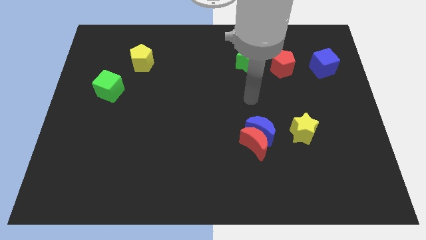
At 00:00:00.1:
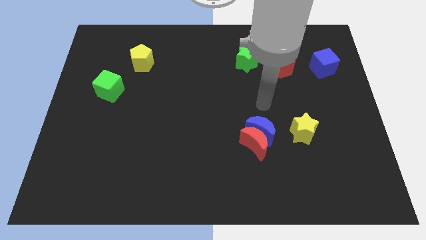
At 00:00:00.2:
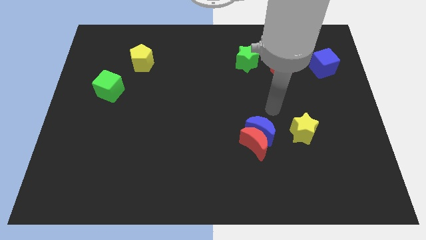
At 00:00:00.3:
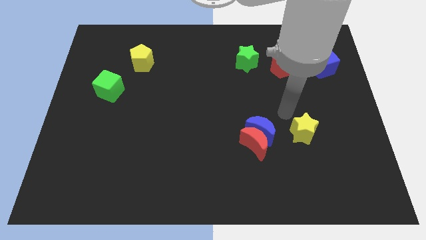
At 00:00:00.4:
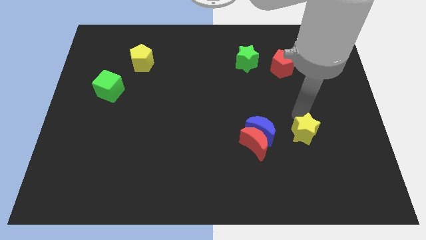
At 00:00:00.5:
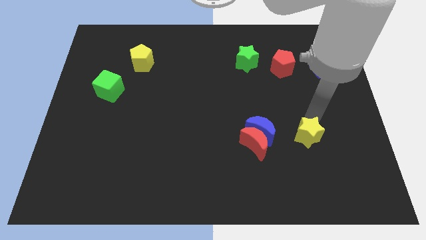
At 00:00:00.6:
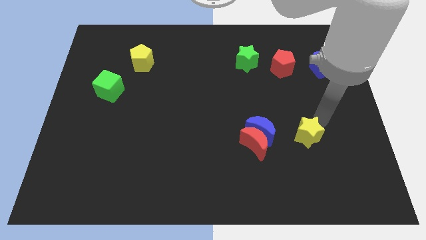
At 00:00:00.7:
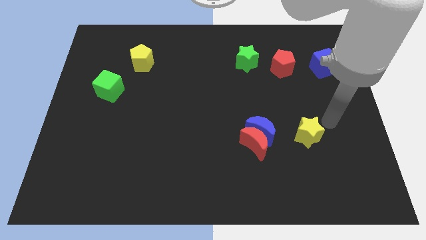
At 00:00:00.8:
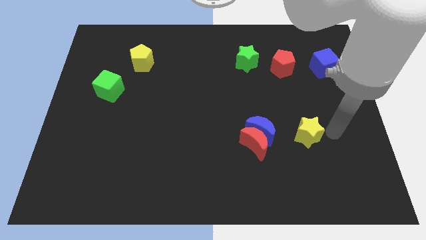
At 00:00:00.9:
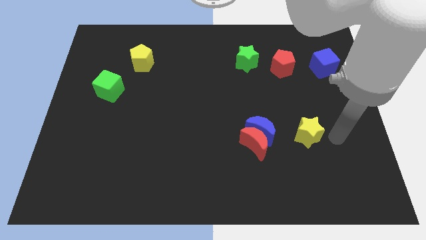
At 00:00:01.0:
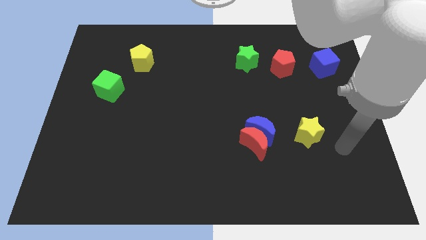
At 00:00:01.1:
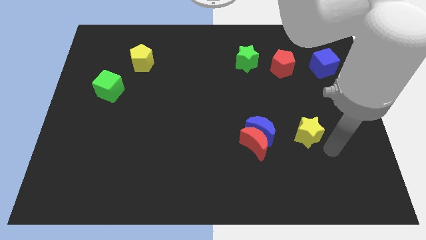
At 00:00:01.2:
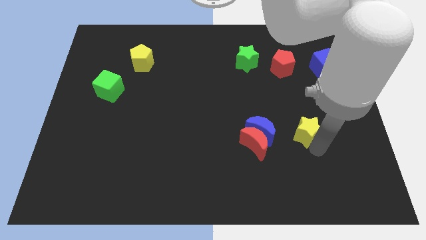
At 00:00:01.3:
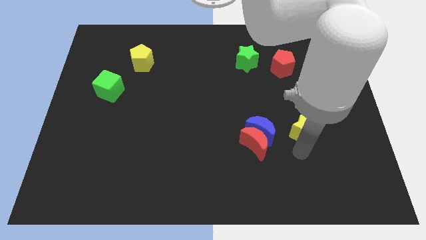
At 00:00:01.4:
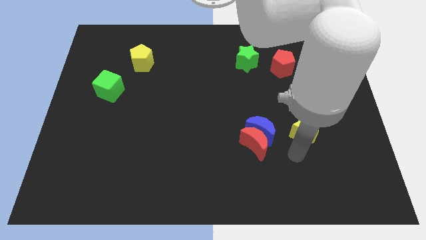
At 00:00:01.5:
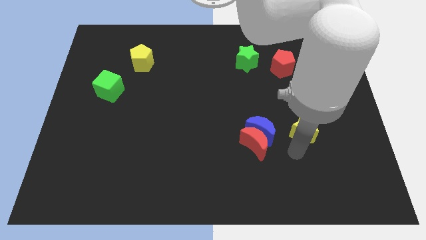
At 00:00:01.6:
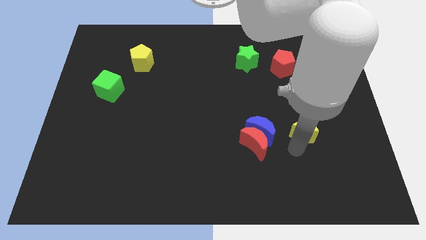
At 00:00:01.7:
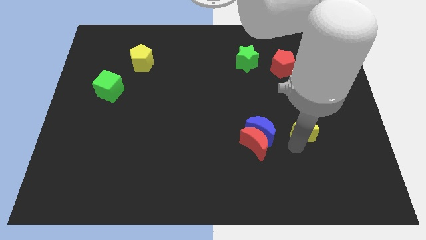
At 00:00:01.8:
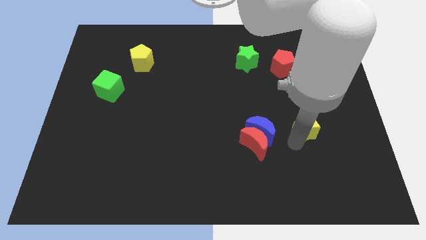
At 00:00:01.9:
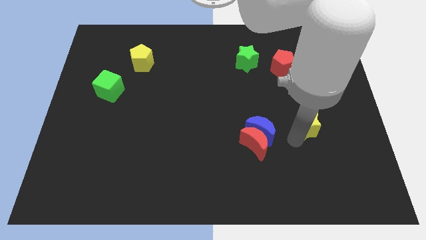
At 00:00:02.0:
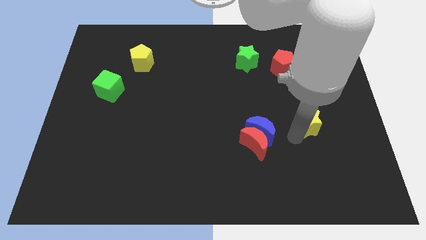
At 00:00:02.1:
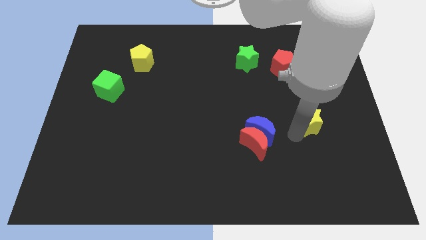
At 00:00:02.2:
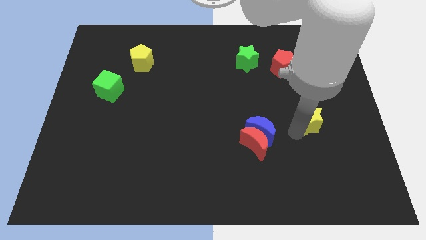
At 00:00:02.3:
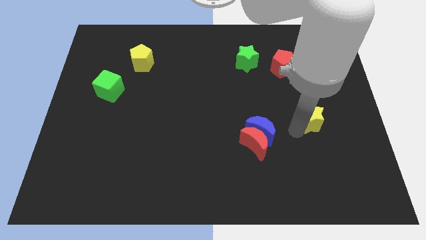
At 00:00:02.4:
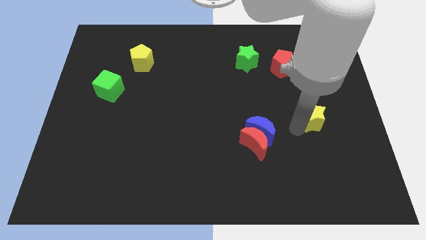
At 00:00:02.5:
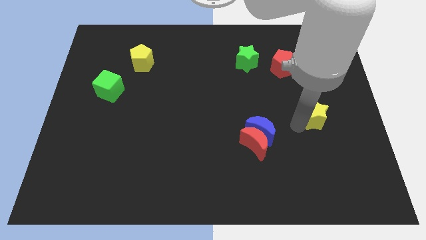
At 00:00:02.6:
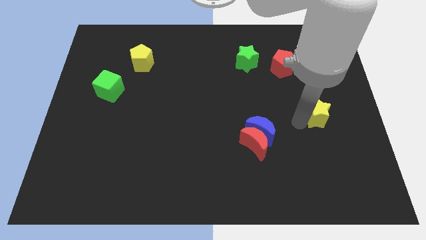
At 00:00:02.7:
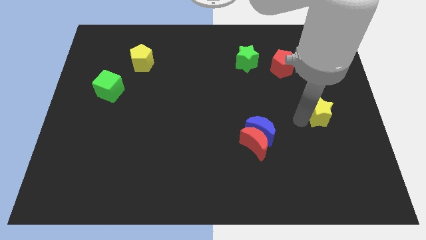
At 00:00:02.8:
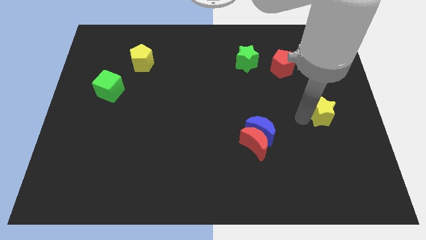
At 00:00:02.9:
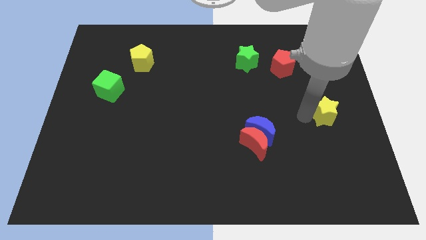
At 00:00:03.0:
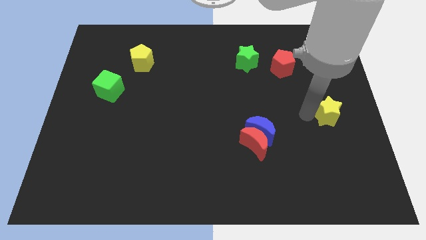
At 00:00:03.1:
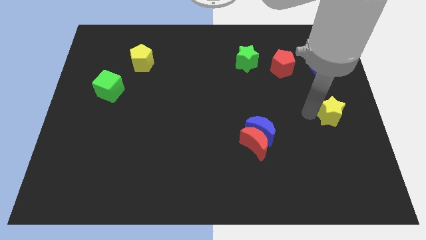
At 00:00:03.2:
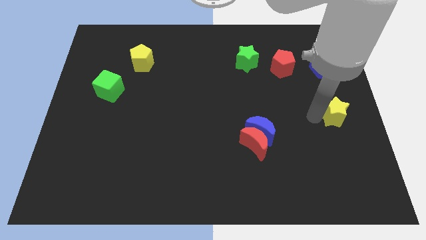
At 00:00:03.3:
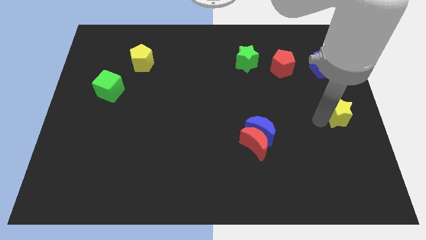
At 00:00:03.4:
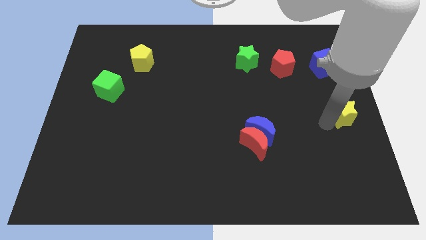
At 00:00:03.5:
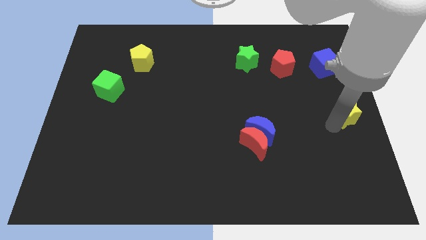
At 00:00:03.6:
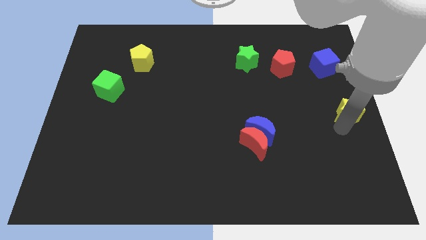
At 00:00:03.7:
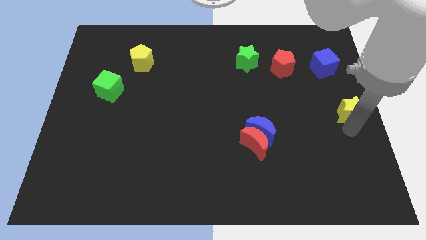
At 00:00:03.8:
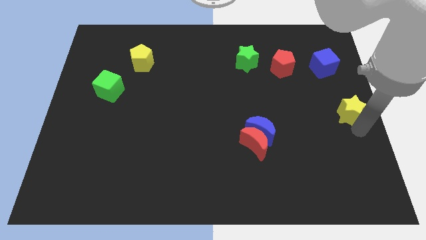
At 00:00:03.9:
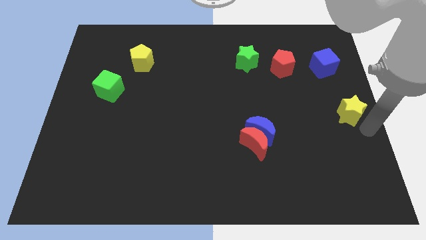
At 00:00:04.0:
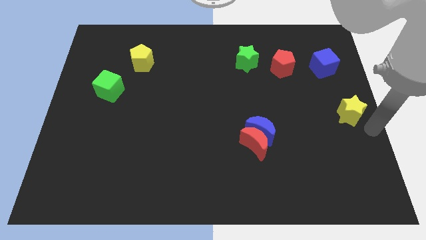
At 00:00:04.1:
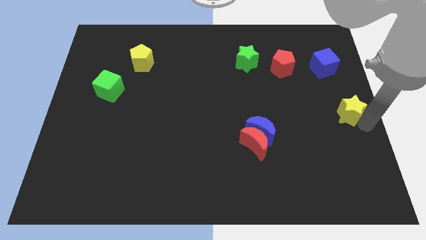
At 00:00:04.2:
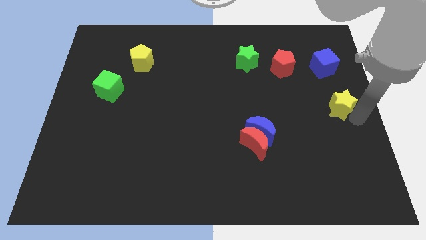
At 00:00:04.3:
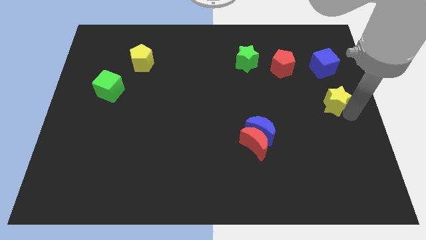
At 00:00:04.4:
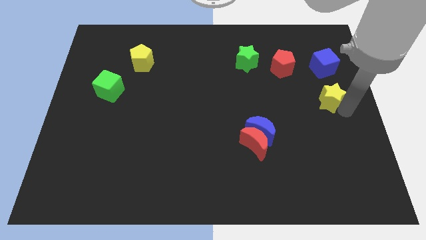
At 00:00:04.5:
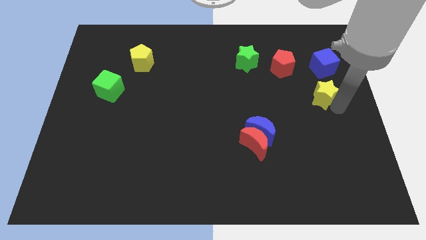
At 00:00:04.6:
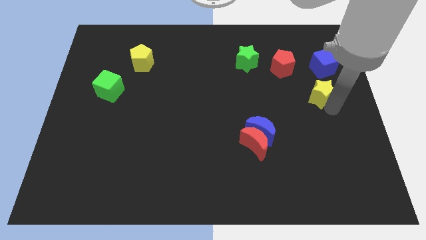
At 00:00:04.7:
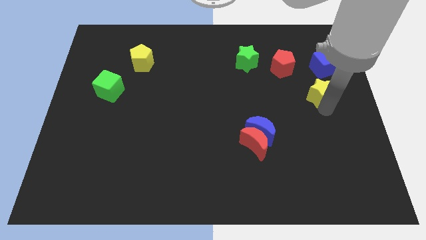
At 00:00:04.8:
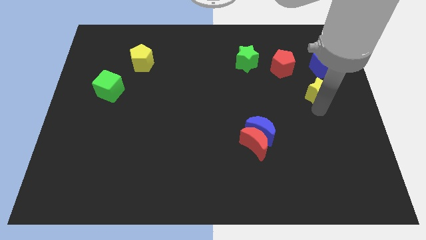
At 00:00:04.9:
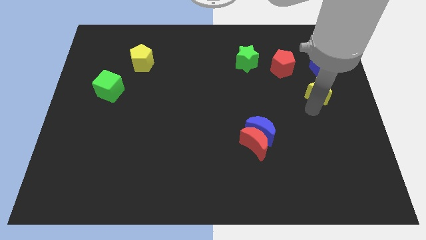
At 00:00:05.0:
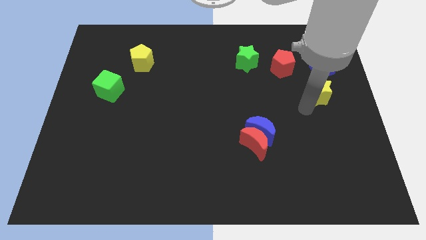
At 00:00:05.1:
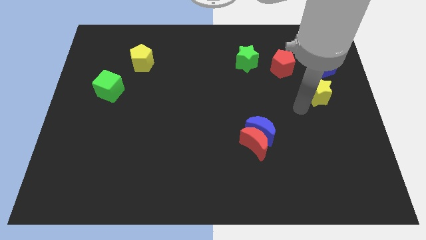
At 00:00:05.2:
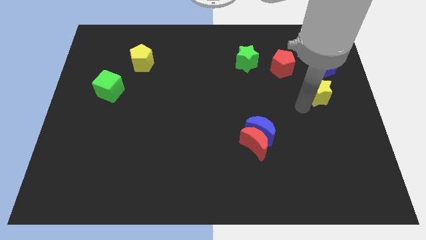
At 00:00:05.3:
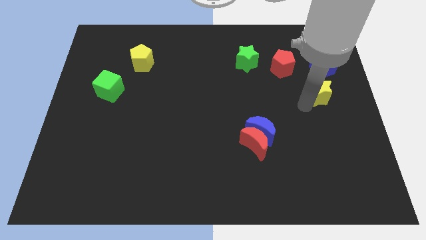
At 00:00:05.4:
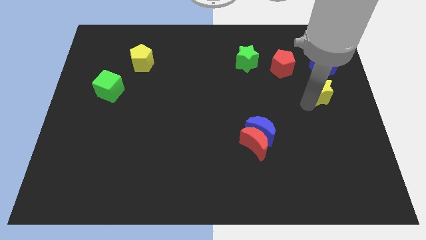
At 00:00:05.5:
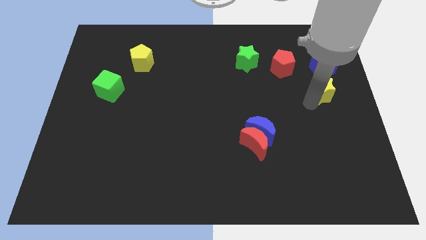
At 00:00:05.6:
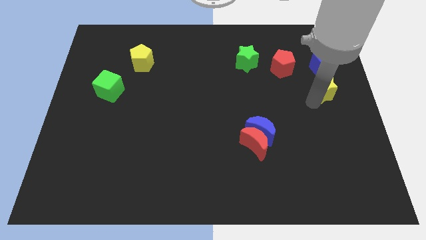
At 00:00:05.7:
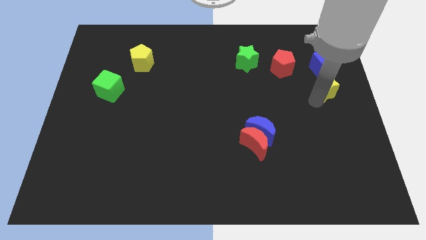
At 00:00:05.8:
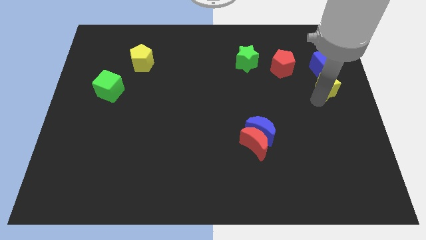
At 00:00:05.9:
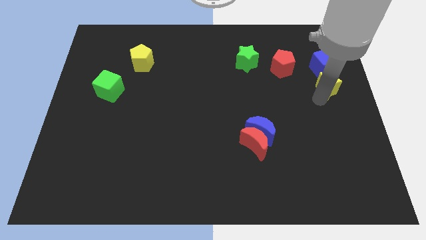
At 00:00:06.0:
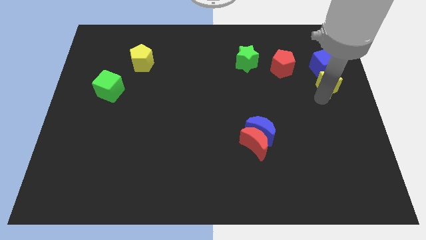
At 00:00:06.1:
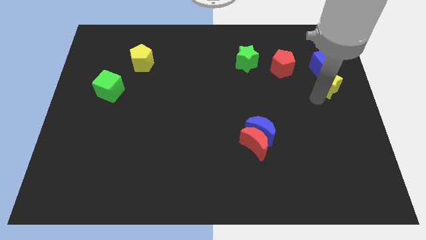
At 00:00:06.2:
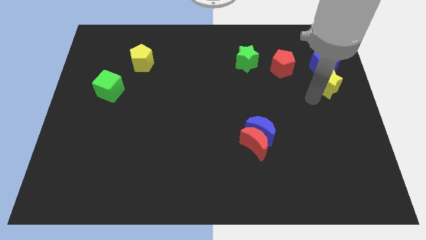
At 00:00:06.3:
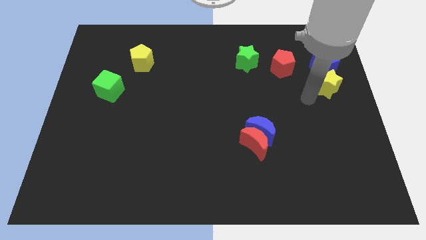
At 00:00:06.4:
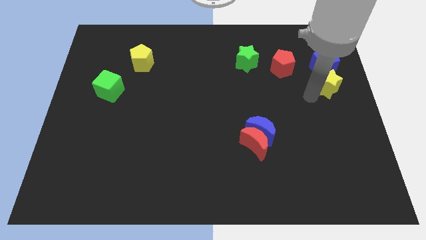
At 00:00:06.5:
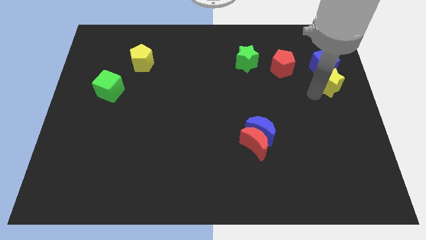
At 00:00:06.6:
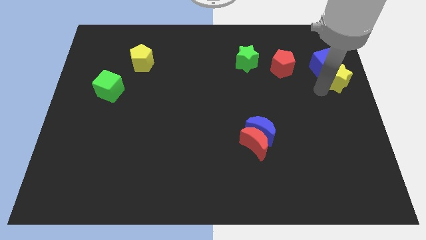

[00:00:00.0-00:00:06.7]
put the yellow star to the right side of the red pentagon
